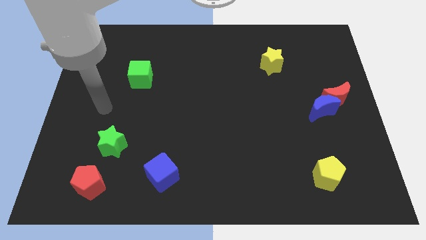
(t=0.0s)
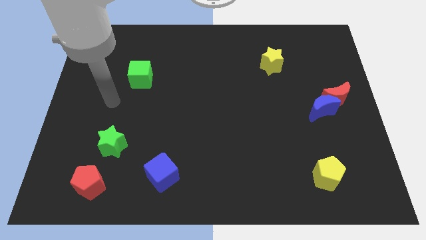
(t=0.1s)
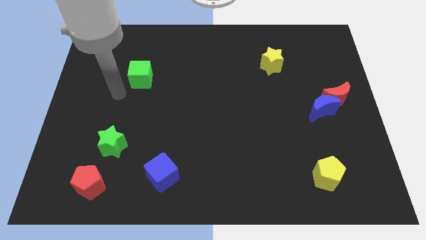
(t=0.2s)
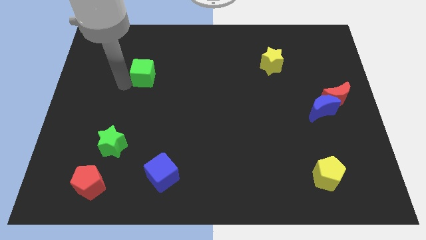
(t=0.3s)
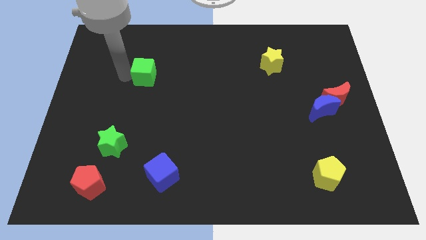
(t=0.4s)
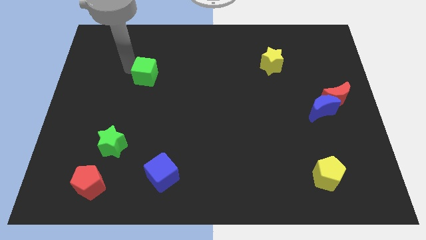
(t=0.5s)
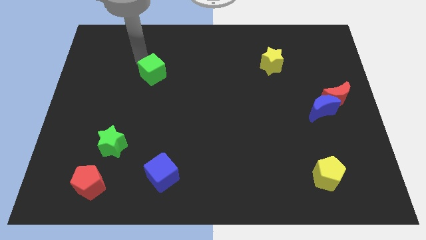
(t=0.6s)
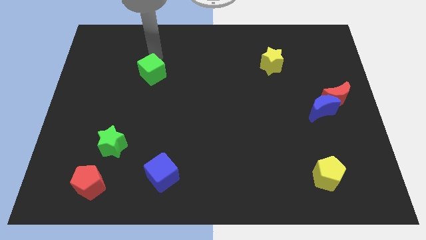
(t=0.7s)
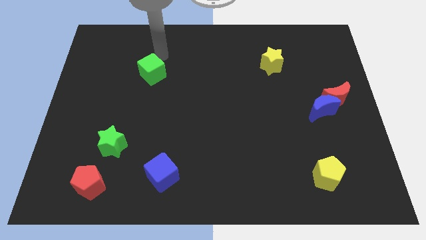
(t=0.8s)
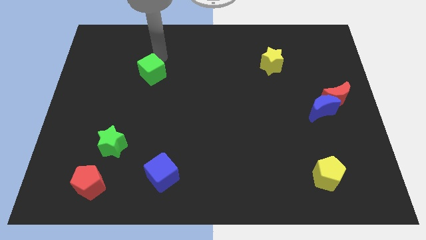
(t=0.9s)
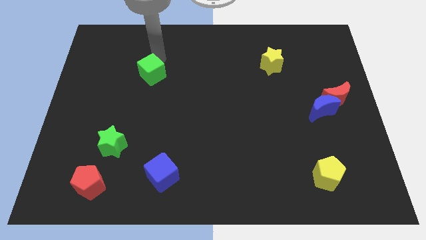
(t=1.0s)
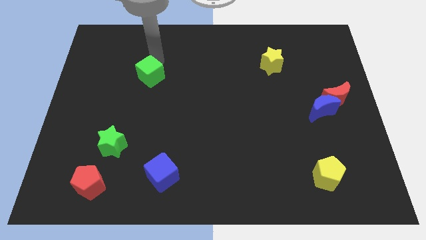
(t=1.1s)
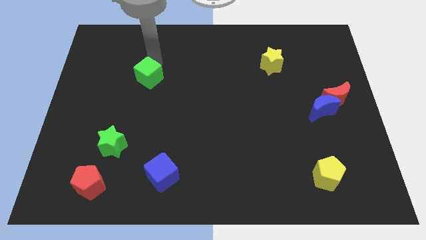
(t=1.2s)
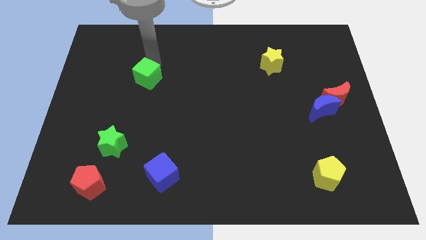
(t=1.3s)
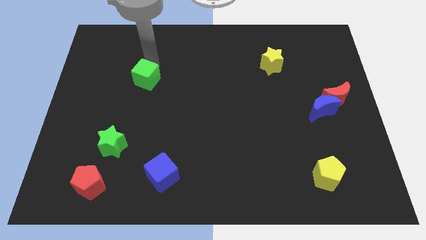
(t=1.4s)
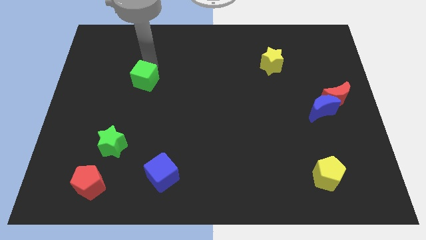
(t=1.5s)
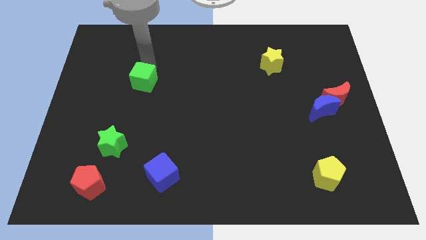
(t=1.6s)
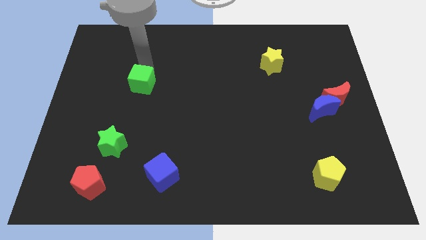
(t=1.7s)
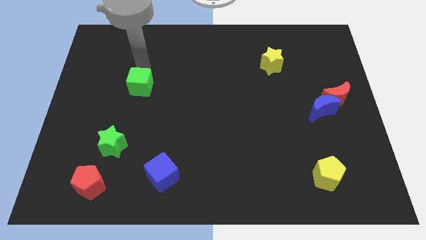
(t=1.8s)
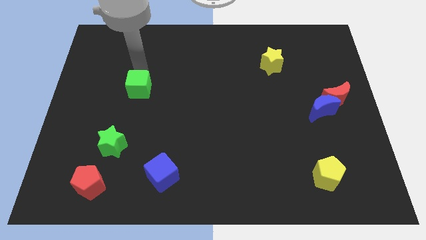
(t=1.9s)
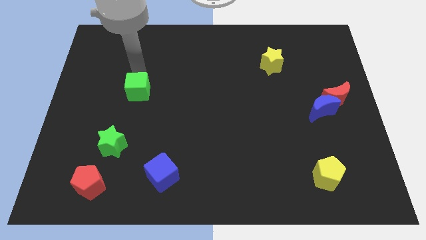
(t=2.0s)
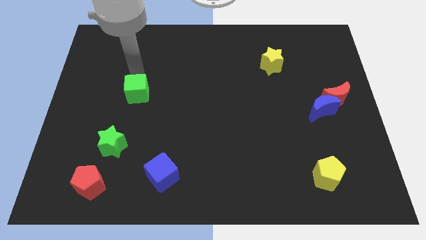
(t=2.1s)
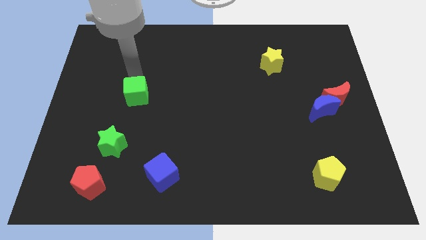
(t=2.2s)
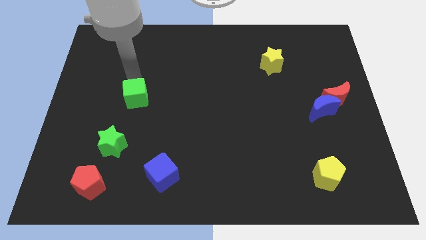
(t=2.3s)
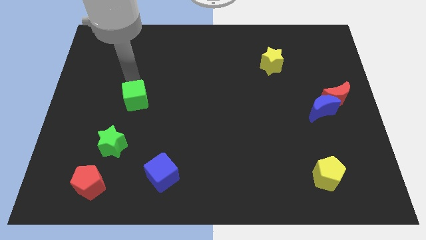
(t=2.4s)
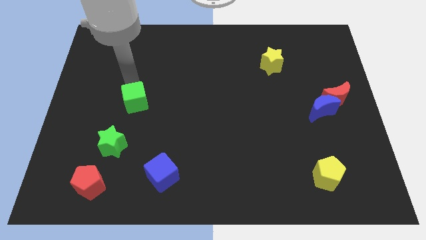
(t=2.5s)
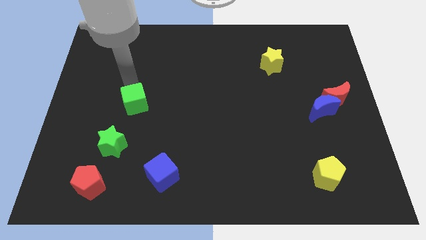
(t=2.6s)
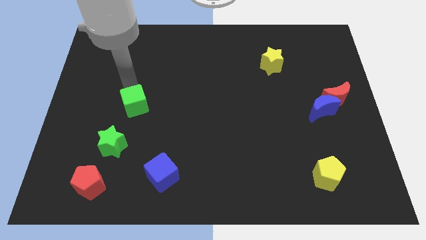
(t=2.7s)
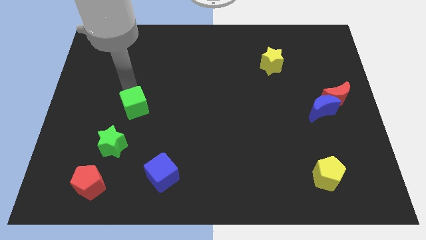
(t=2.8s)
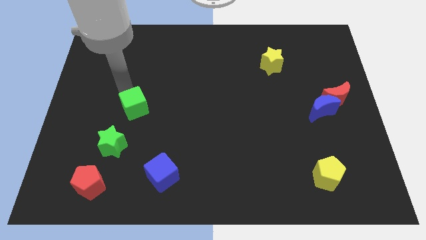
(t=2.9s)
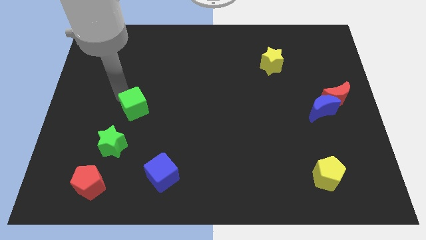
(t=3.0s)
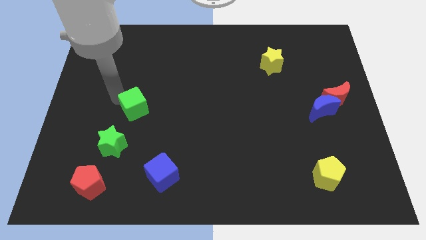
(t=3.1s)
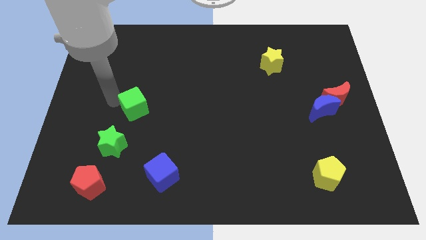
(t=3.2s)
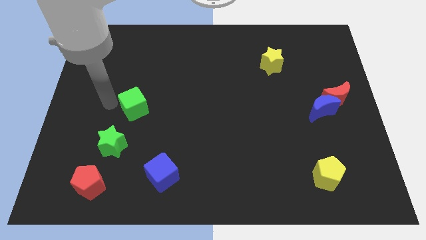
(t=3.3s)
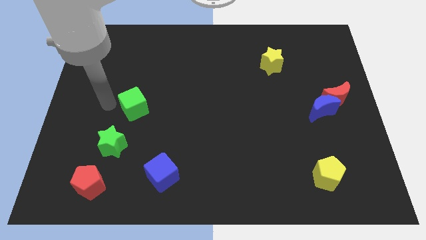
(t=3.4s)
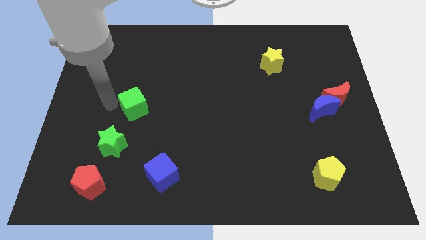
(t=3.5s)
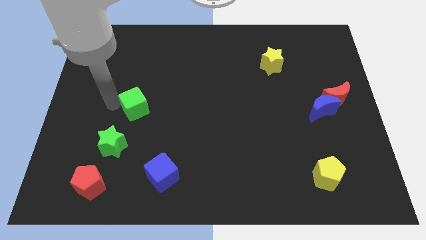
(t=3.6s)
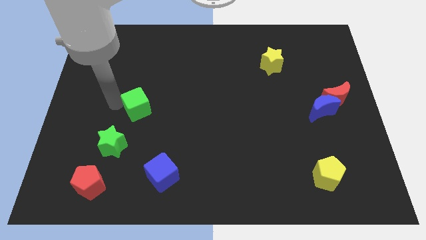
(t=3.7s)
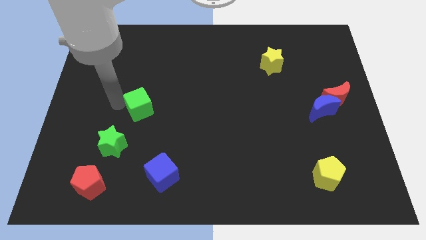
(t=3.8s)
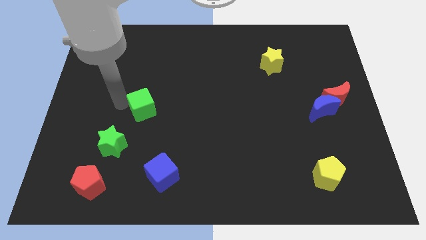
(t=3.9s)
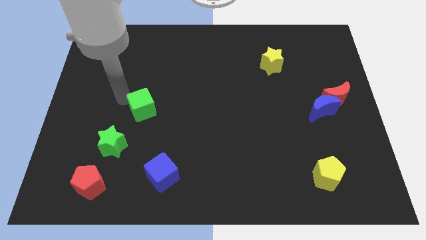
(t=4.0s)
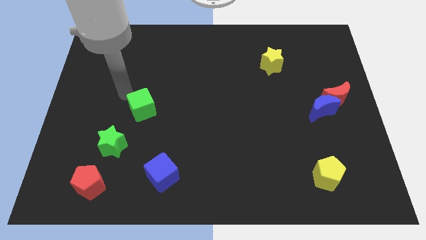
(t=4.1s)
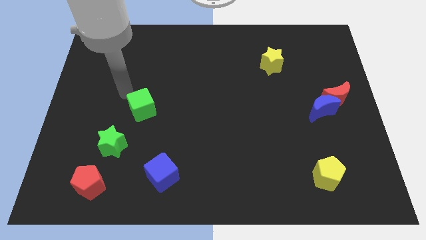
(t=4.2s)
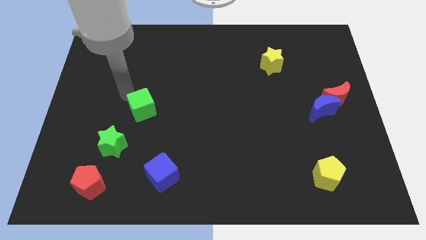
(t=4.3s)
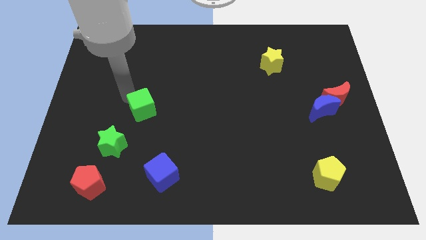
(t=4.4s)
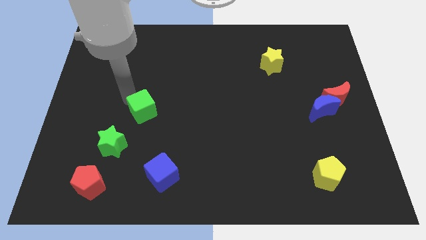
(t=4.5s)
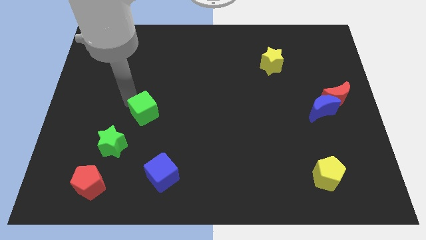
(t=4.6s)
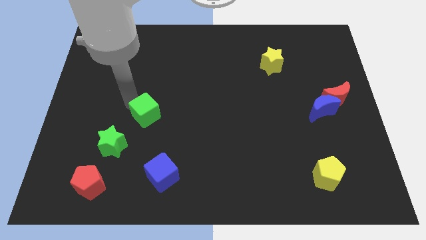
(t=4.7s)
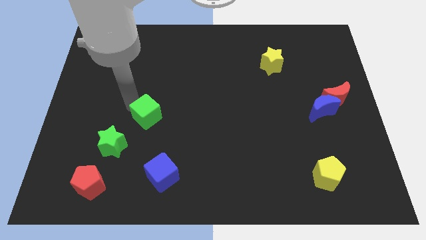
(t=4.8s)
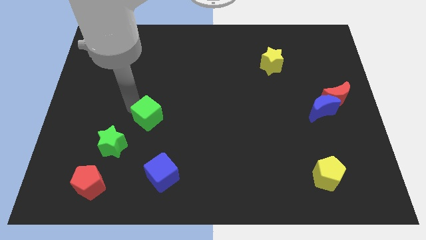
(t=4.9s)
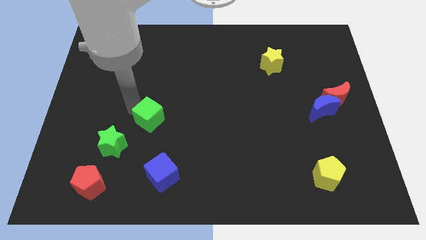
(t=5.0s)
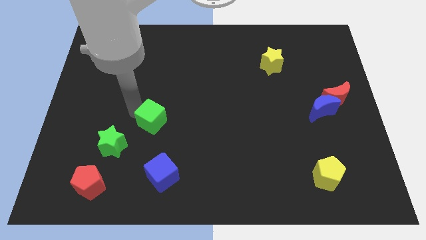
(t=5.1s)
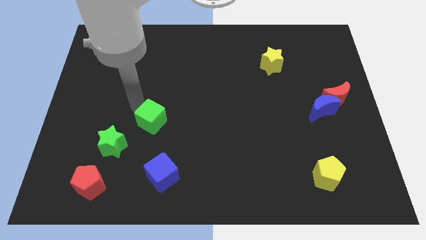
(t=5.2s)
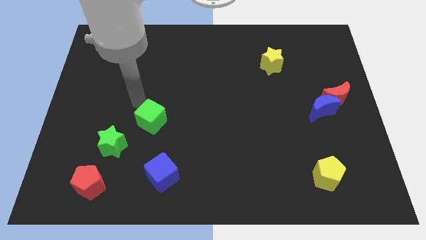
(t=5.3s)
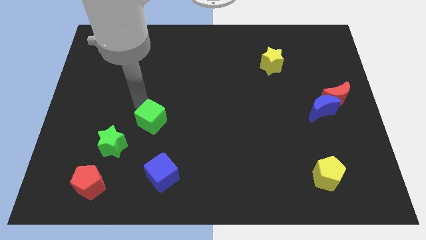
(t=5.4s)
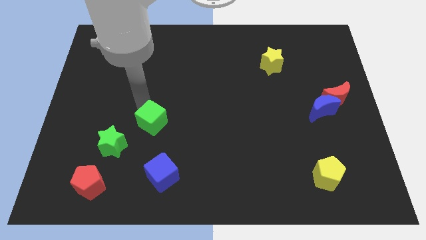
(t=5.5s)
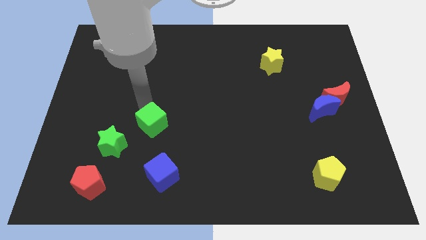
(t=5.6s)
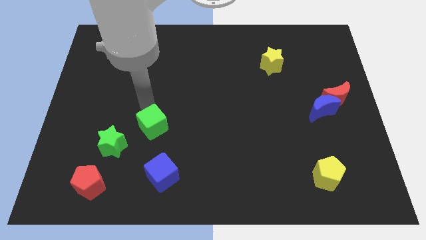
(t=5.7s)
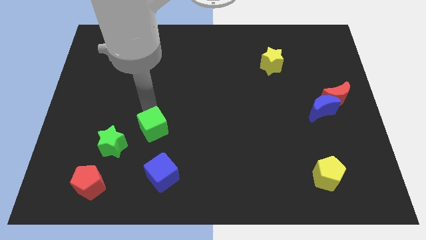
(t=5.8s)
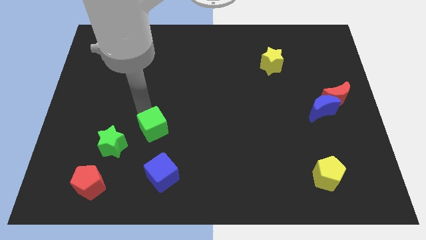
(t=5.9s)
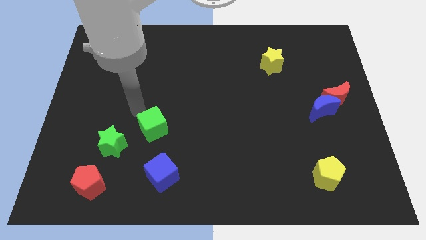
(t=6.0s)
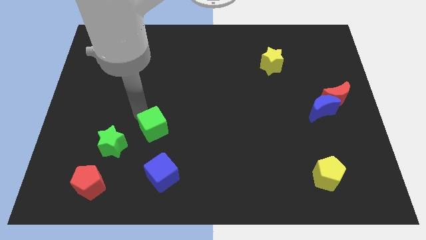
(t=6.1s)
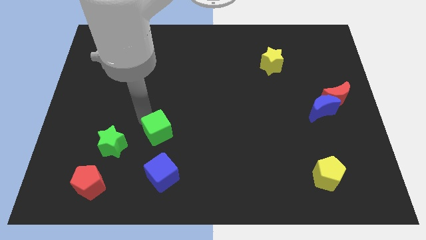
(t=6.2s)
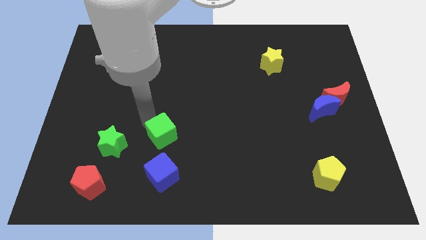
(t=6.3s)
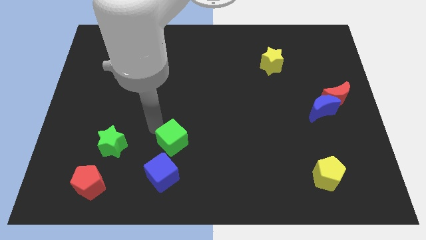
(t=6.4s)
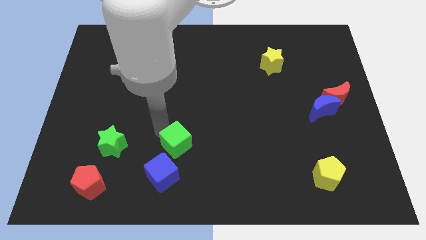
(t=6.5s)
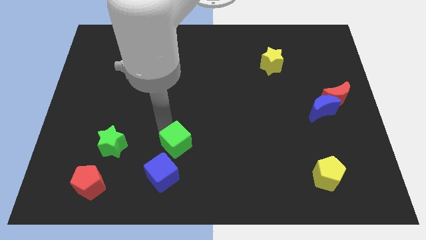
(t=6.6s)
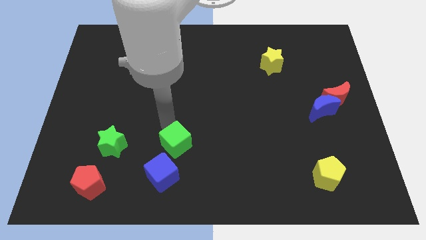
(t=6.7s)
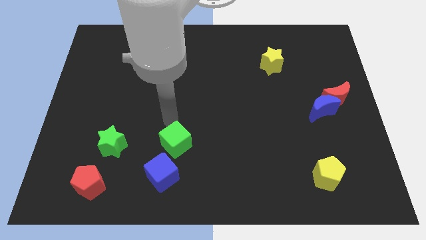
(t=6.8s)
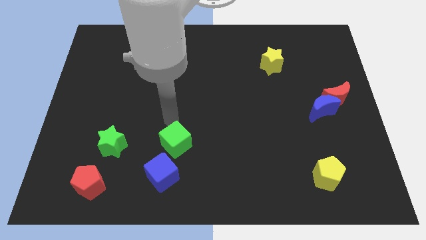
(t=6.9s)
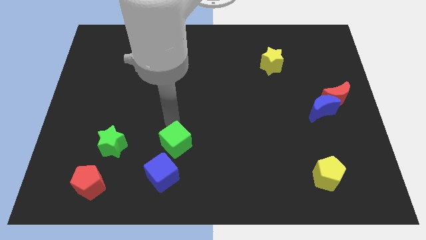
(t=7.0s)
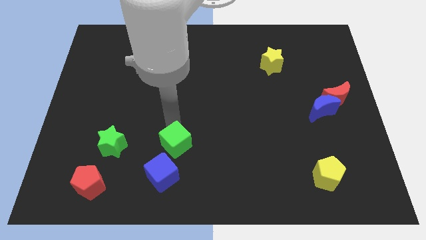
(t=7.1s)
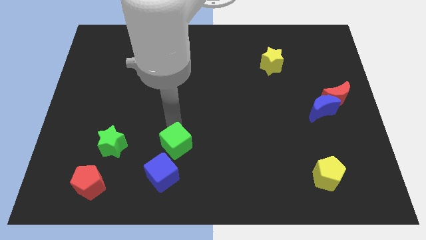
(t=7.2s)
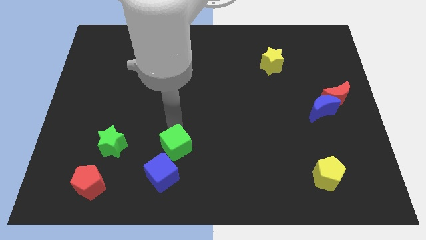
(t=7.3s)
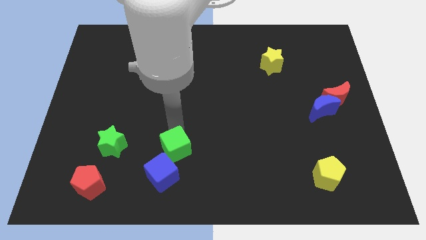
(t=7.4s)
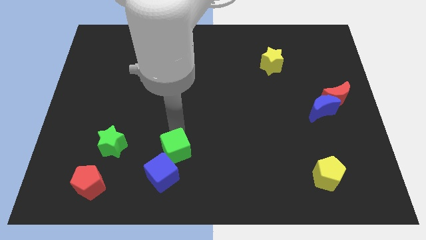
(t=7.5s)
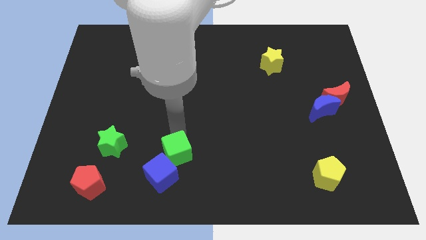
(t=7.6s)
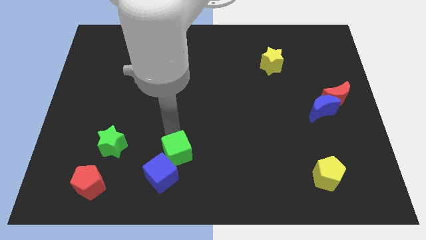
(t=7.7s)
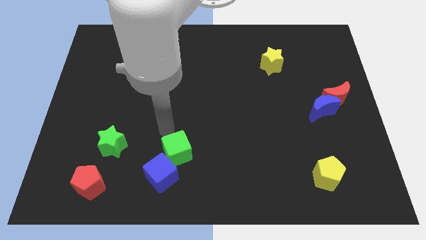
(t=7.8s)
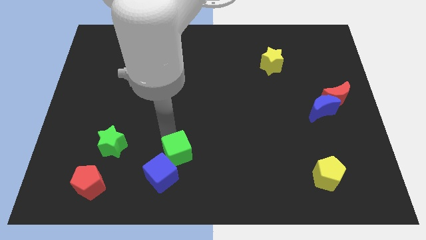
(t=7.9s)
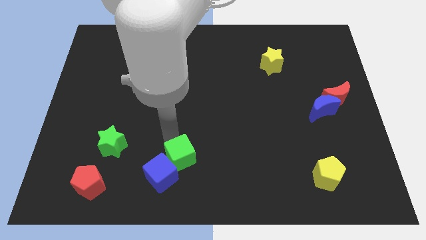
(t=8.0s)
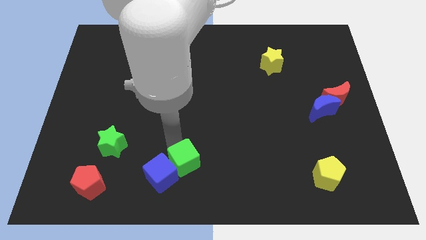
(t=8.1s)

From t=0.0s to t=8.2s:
move the green cube to the bottom
